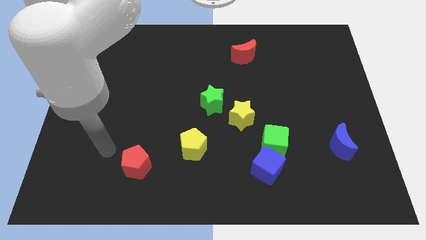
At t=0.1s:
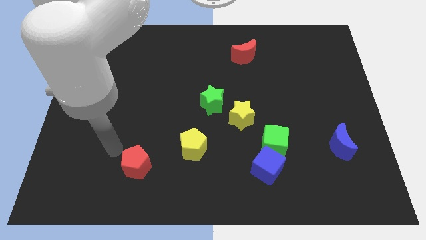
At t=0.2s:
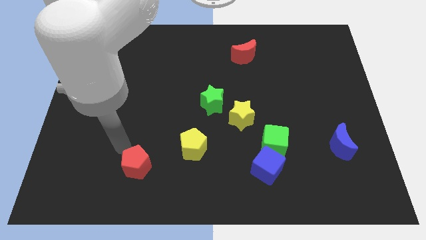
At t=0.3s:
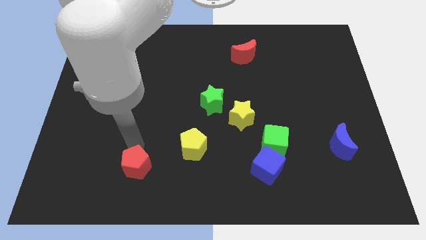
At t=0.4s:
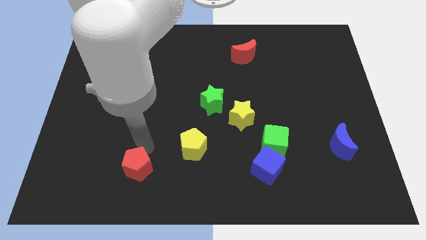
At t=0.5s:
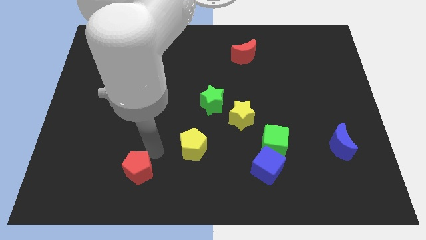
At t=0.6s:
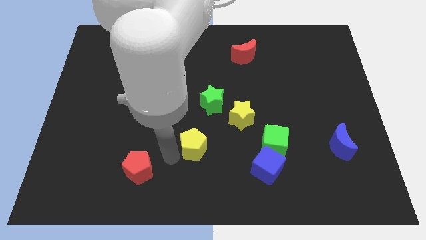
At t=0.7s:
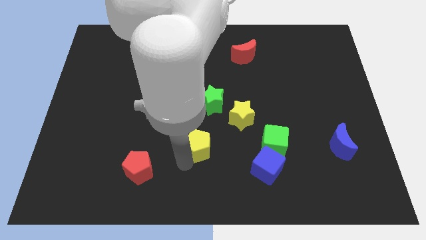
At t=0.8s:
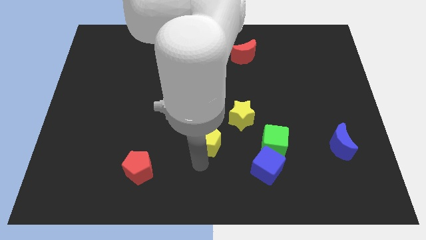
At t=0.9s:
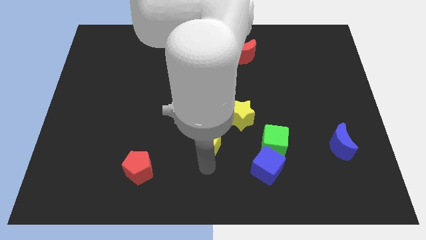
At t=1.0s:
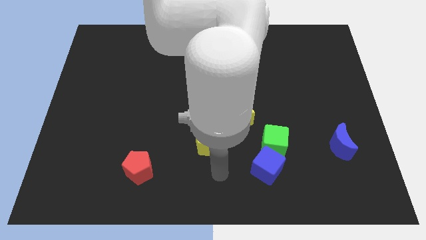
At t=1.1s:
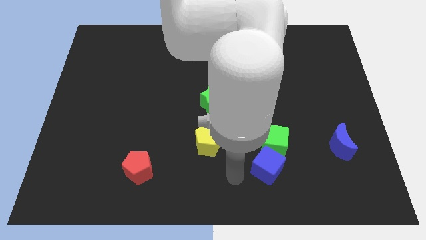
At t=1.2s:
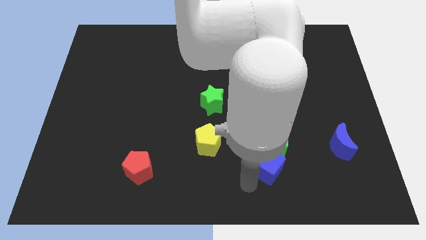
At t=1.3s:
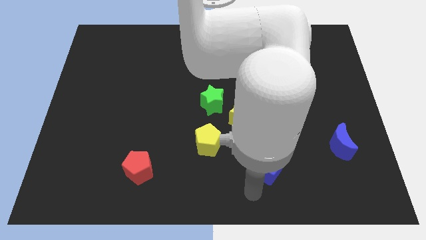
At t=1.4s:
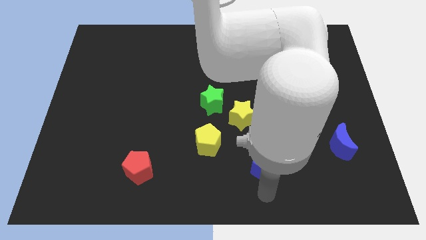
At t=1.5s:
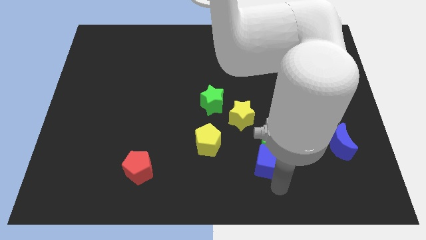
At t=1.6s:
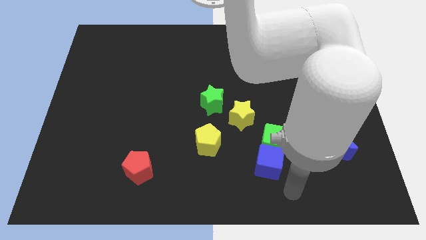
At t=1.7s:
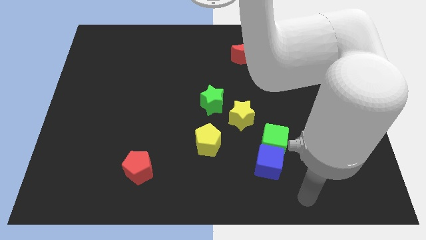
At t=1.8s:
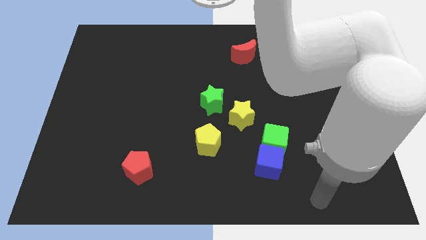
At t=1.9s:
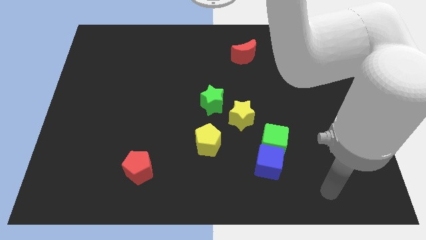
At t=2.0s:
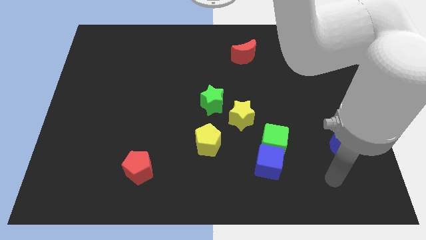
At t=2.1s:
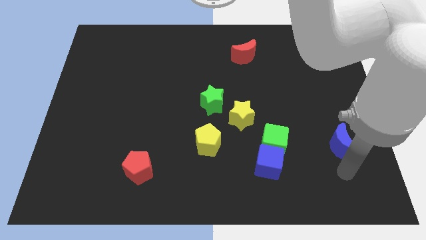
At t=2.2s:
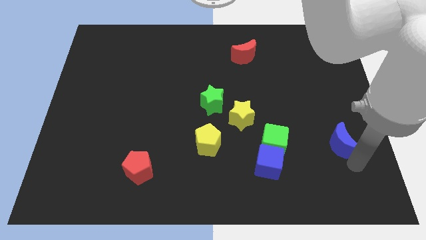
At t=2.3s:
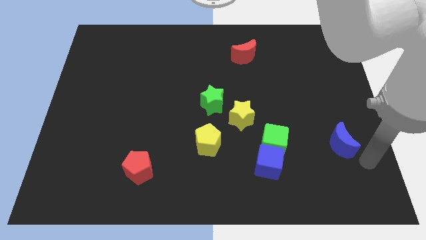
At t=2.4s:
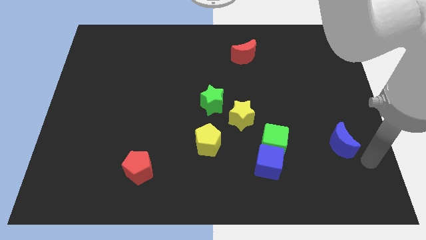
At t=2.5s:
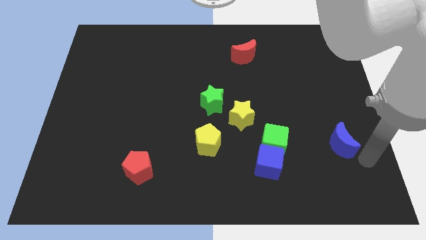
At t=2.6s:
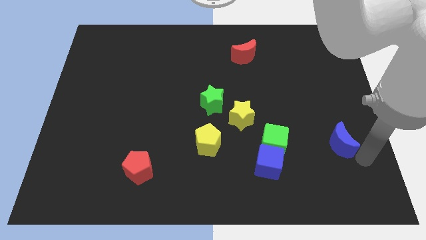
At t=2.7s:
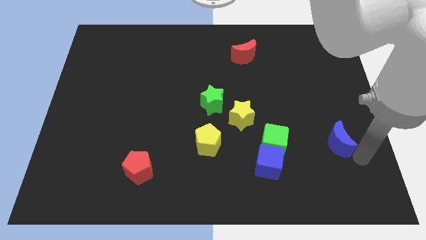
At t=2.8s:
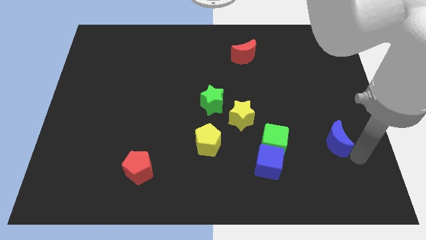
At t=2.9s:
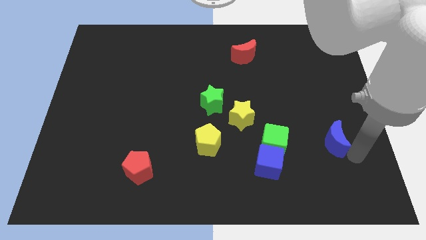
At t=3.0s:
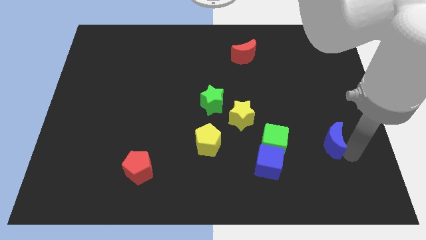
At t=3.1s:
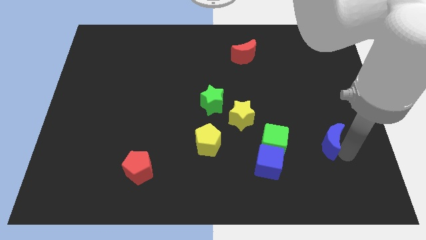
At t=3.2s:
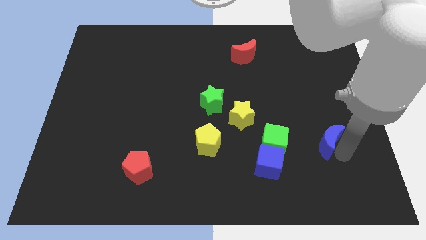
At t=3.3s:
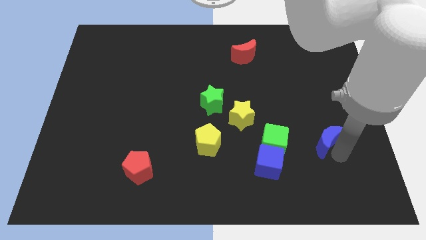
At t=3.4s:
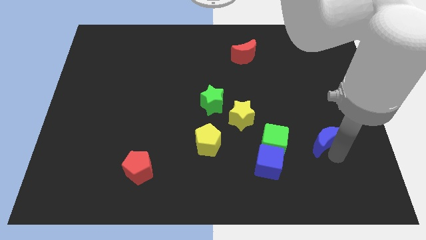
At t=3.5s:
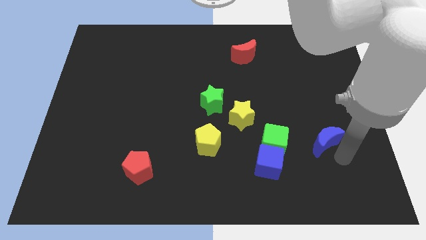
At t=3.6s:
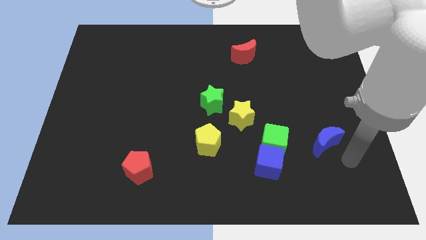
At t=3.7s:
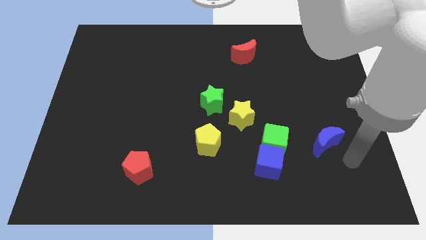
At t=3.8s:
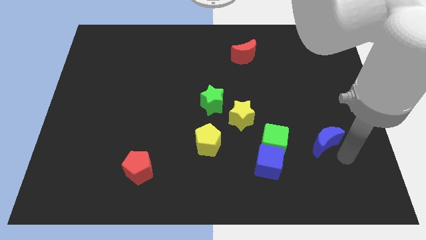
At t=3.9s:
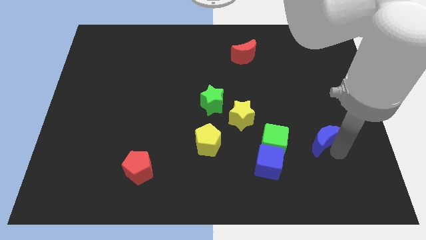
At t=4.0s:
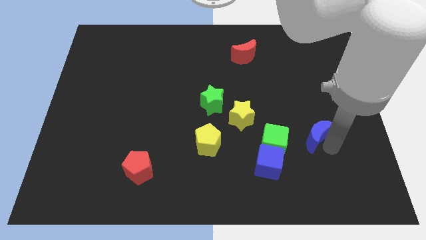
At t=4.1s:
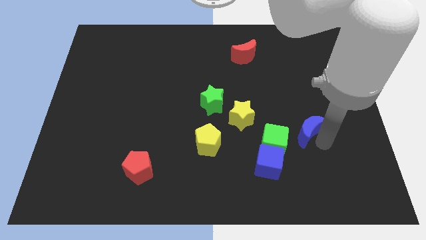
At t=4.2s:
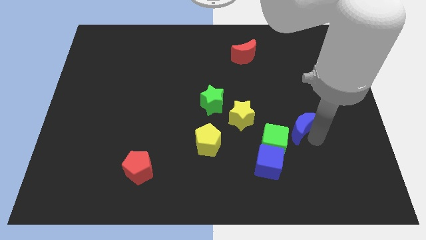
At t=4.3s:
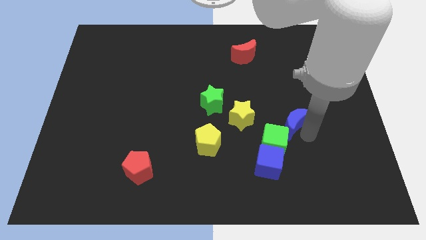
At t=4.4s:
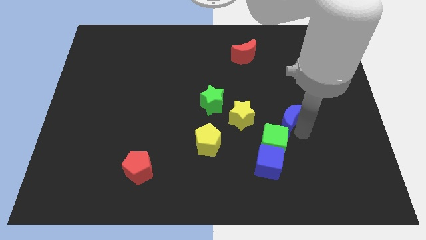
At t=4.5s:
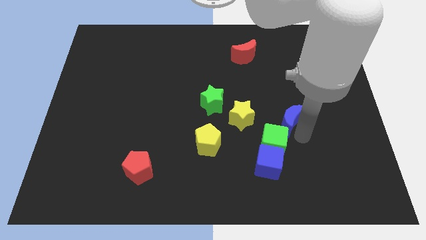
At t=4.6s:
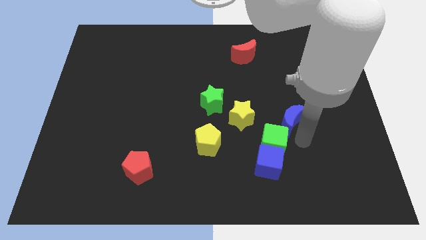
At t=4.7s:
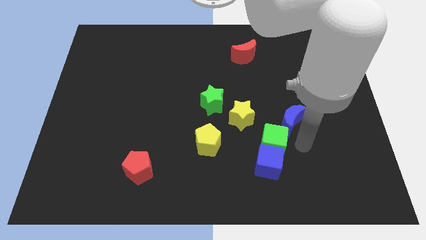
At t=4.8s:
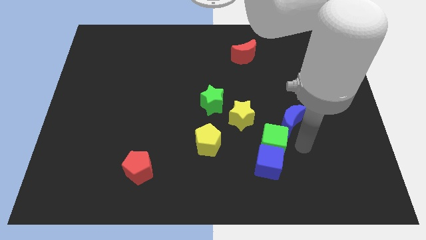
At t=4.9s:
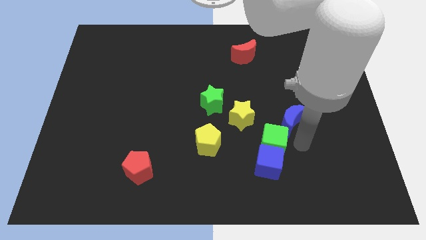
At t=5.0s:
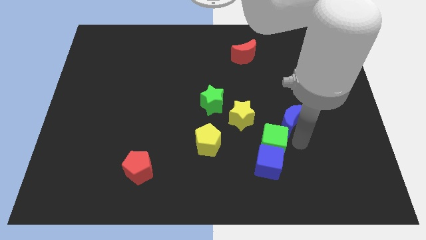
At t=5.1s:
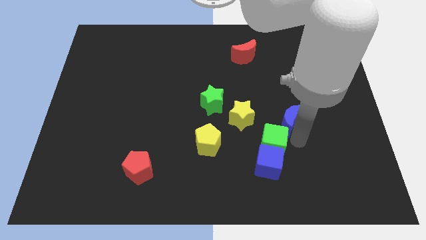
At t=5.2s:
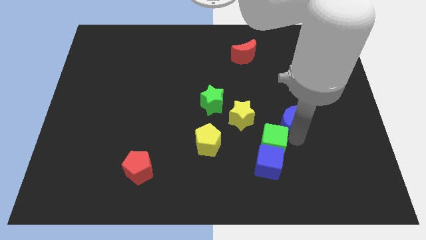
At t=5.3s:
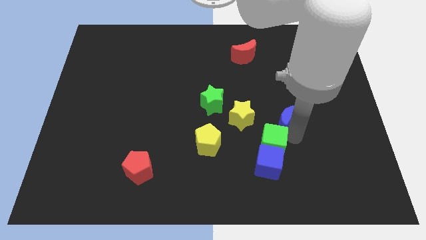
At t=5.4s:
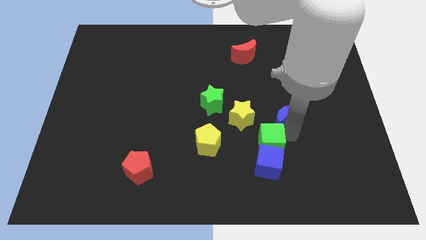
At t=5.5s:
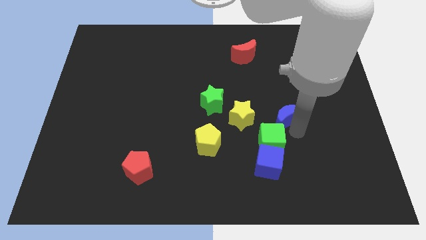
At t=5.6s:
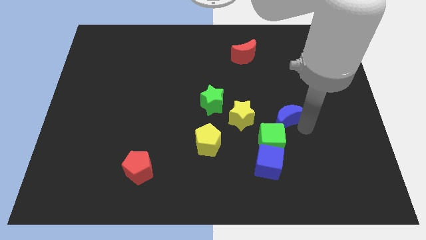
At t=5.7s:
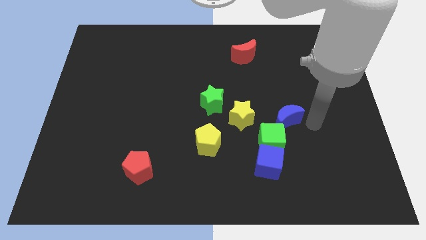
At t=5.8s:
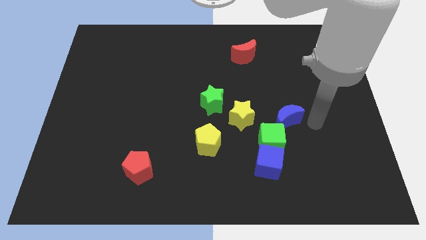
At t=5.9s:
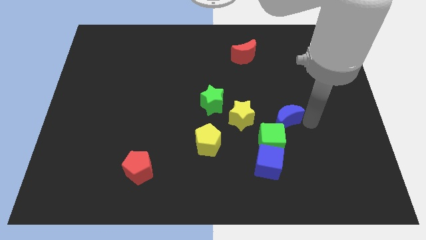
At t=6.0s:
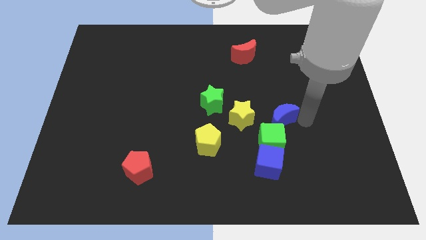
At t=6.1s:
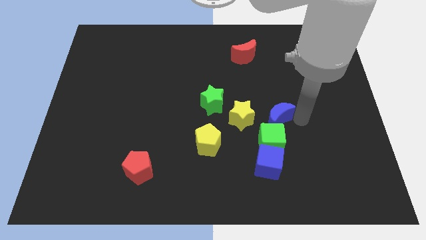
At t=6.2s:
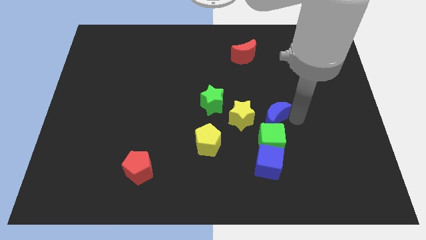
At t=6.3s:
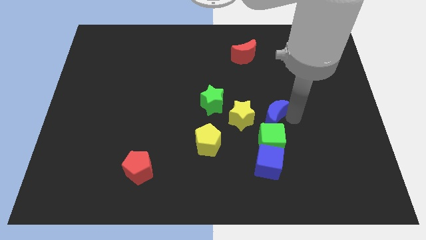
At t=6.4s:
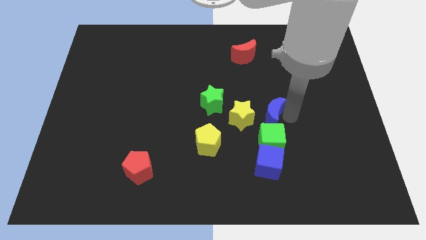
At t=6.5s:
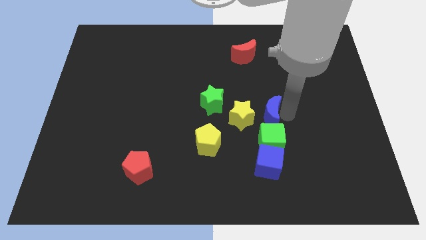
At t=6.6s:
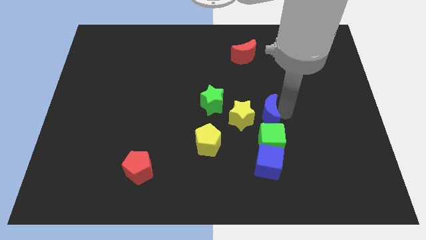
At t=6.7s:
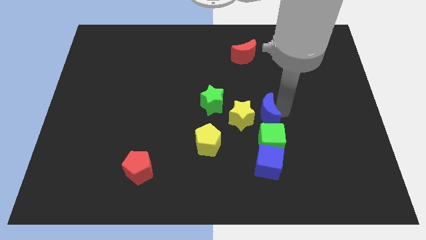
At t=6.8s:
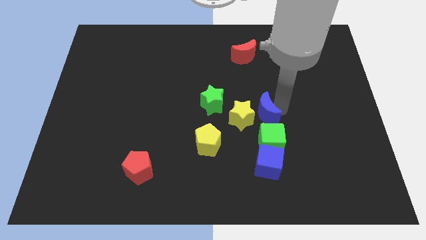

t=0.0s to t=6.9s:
move the blue moon close to the yellow star
